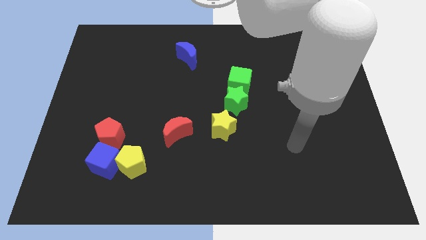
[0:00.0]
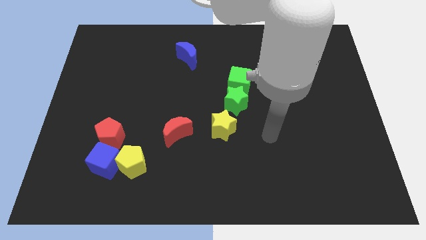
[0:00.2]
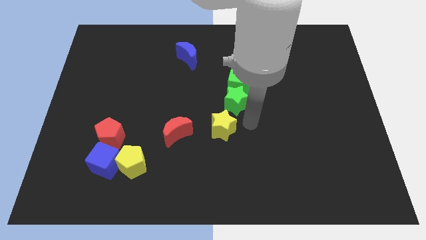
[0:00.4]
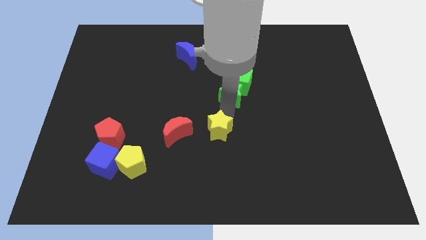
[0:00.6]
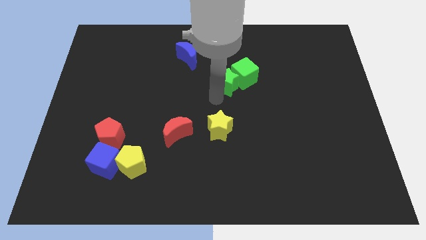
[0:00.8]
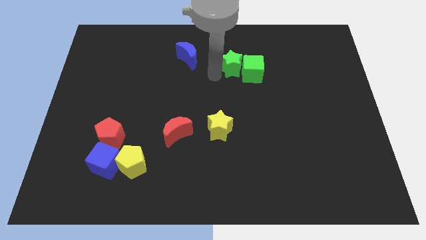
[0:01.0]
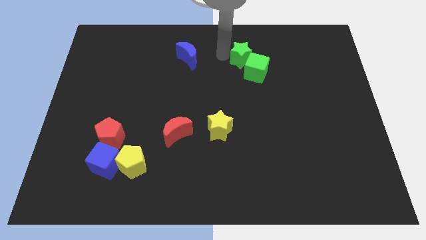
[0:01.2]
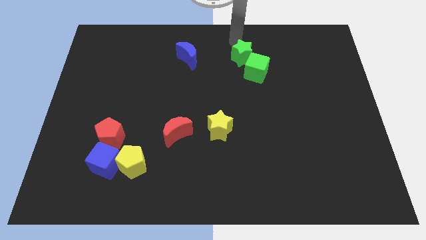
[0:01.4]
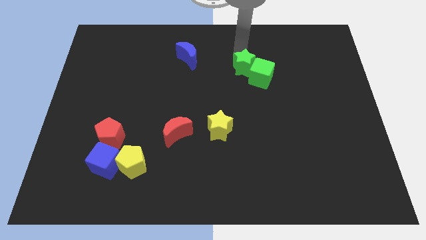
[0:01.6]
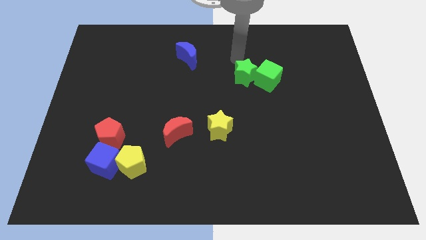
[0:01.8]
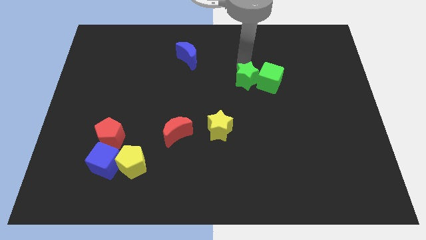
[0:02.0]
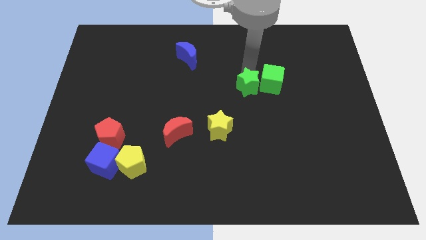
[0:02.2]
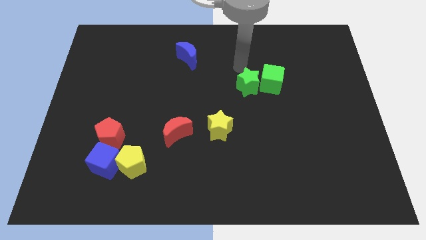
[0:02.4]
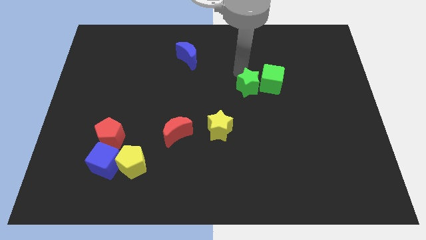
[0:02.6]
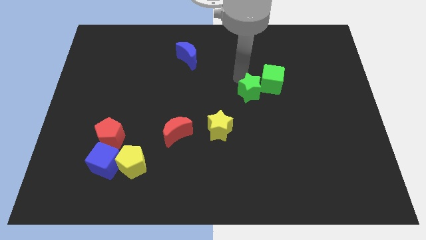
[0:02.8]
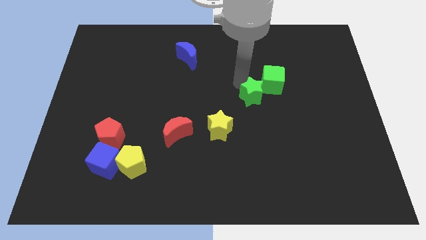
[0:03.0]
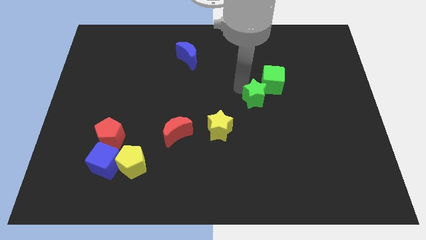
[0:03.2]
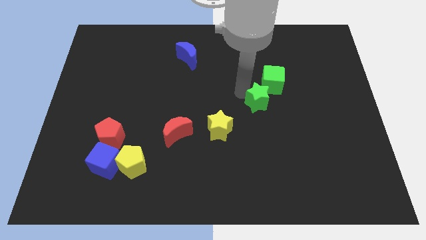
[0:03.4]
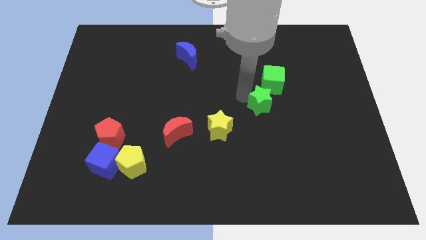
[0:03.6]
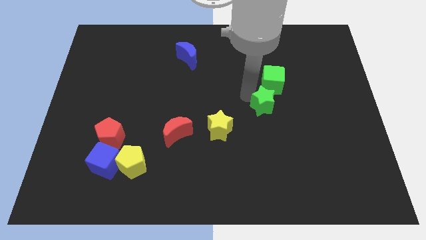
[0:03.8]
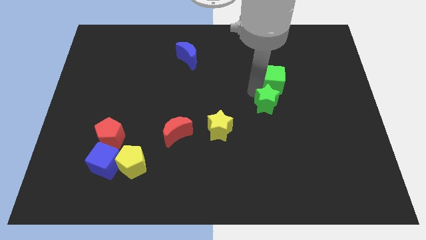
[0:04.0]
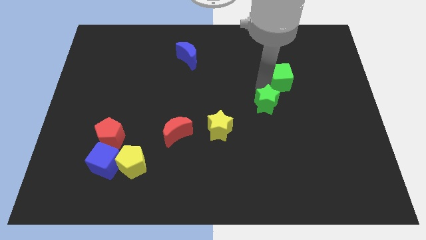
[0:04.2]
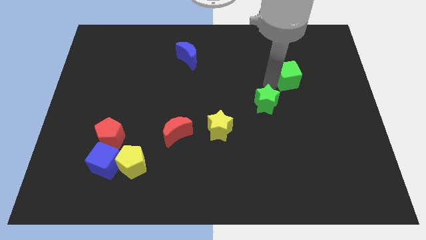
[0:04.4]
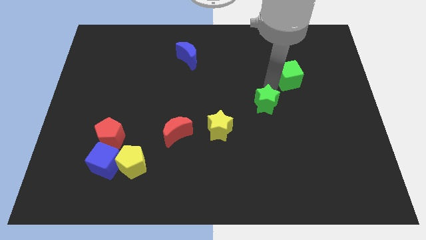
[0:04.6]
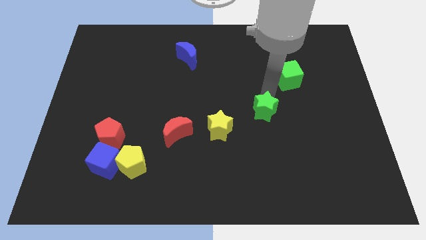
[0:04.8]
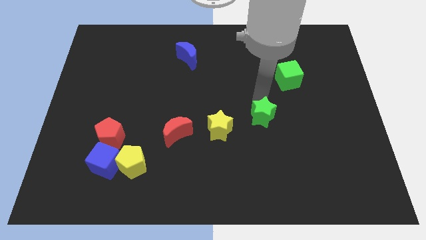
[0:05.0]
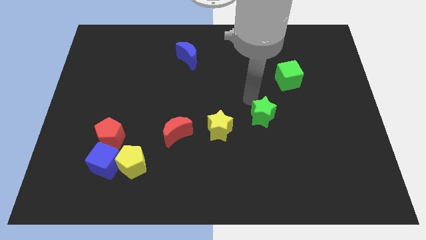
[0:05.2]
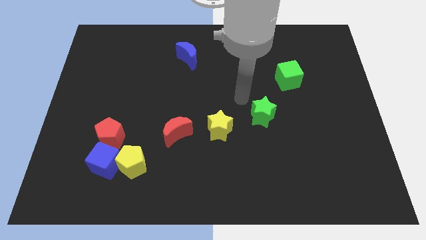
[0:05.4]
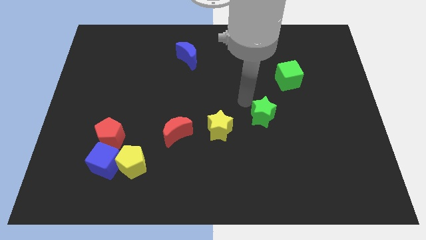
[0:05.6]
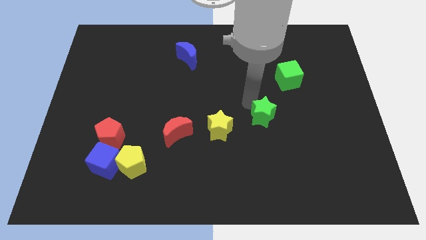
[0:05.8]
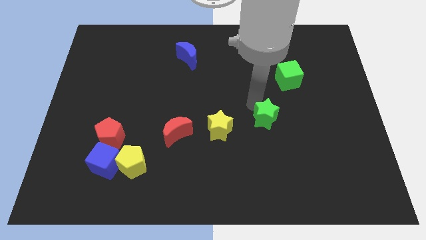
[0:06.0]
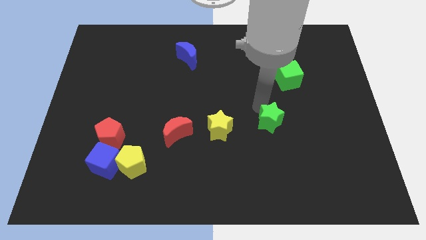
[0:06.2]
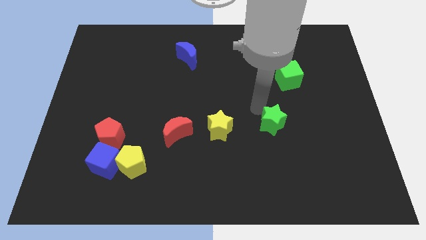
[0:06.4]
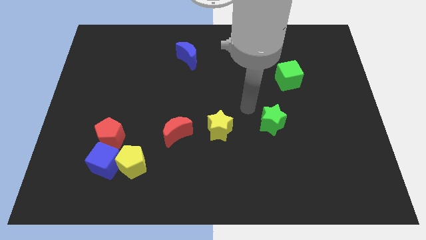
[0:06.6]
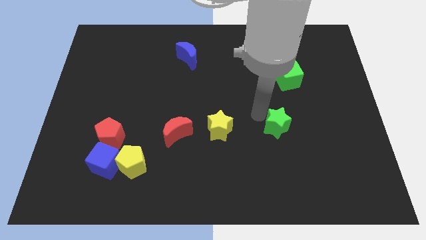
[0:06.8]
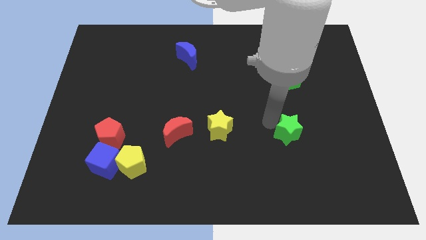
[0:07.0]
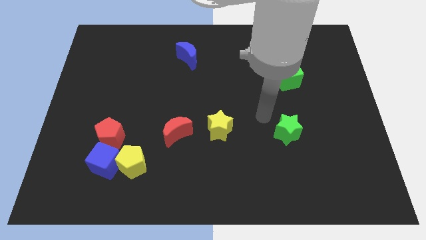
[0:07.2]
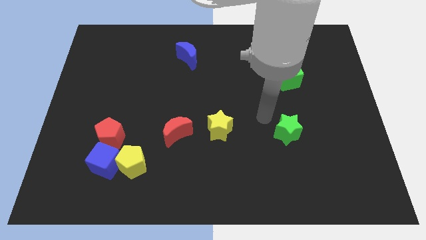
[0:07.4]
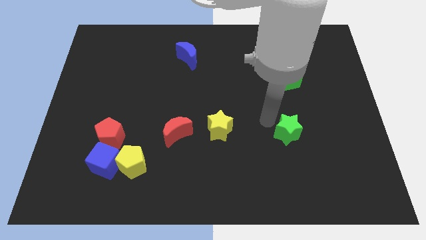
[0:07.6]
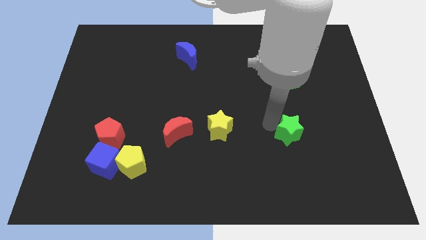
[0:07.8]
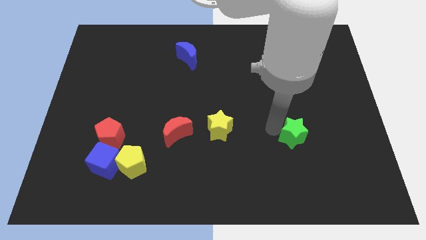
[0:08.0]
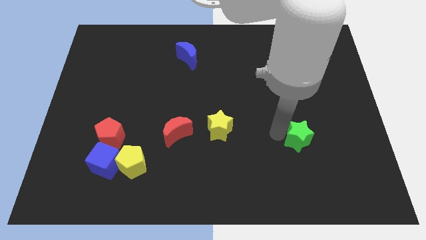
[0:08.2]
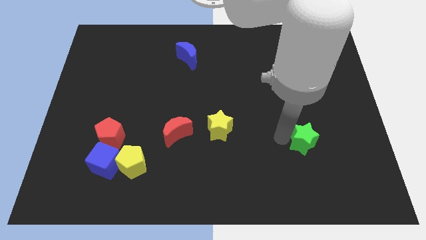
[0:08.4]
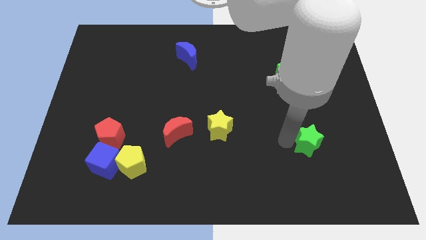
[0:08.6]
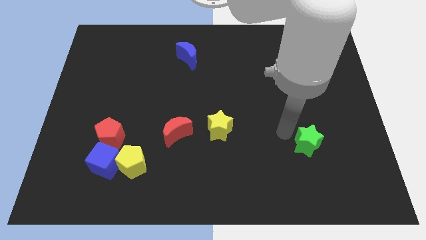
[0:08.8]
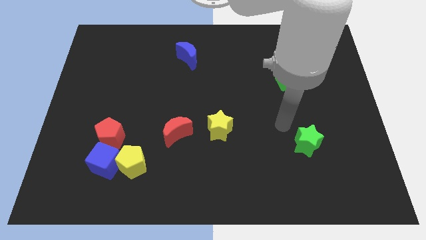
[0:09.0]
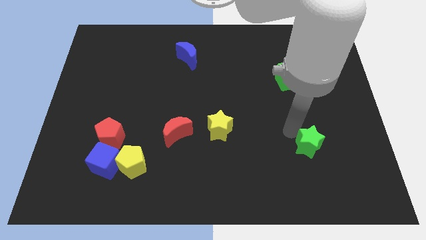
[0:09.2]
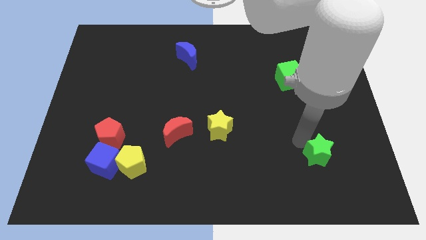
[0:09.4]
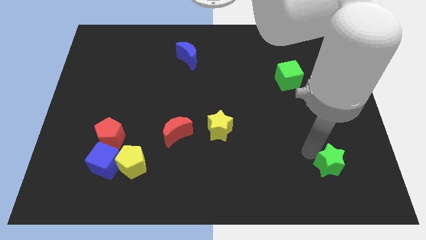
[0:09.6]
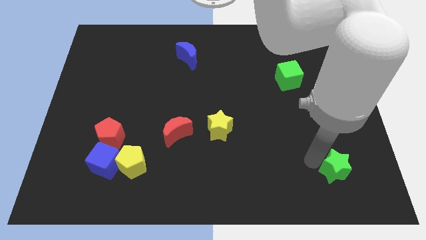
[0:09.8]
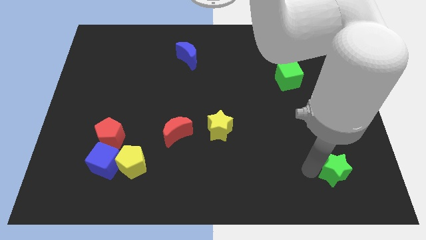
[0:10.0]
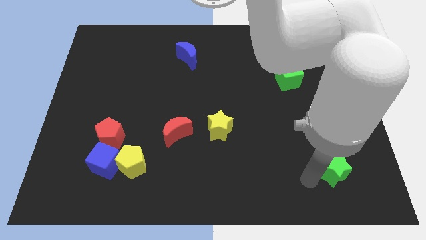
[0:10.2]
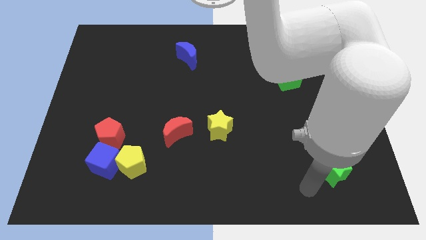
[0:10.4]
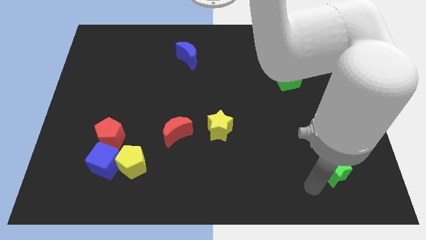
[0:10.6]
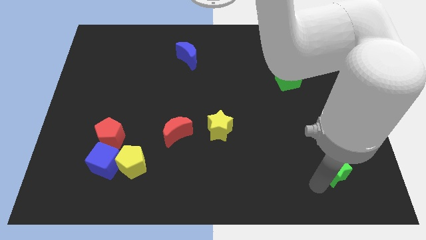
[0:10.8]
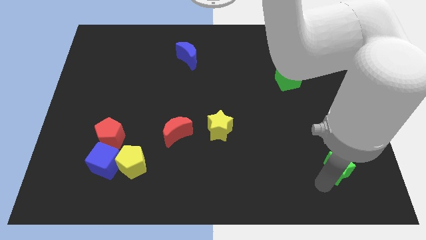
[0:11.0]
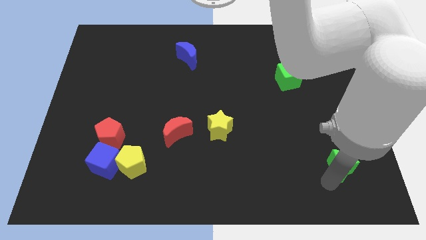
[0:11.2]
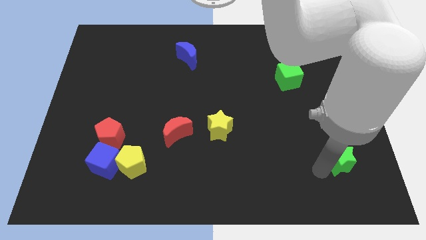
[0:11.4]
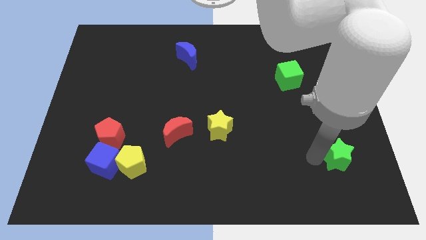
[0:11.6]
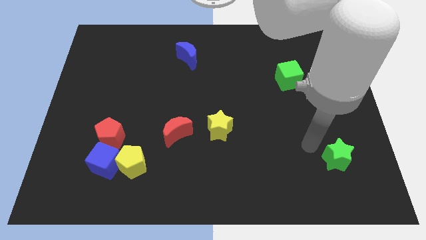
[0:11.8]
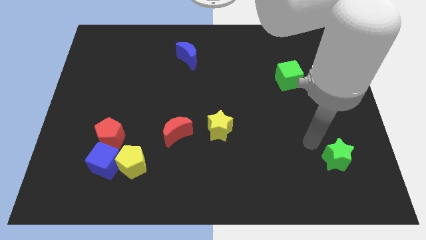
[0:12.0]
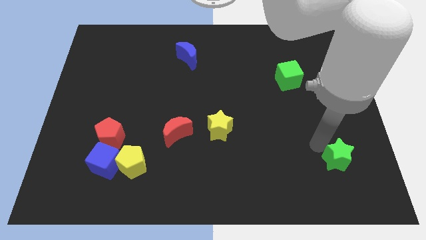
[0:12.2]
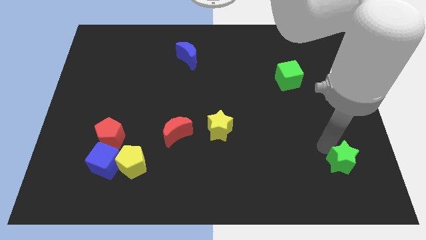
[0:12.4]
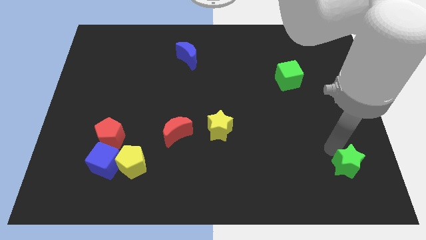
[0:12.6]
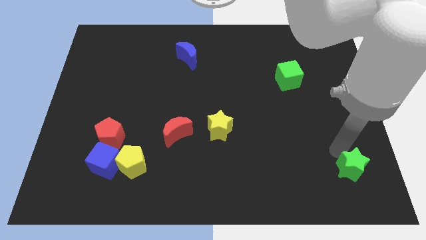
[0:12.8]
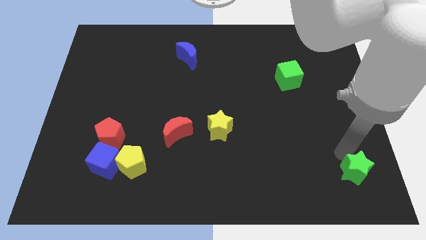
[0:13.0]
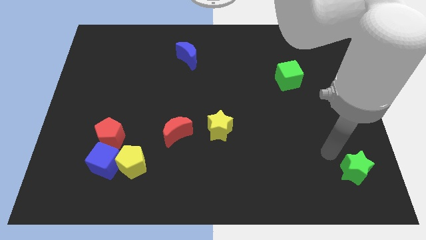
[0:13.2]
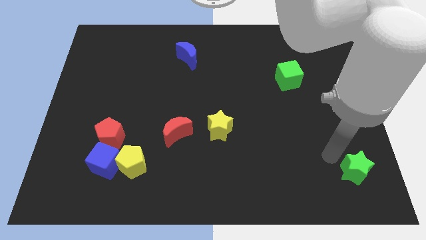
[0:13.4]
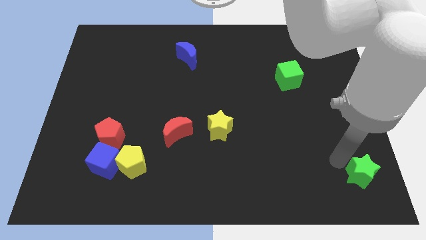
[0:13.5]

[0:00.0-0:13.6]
push the green star to the bottom right
